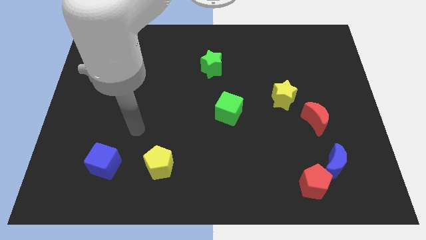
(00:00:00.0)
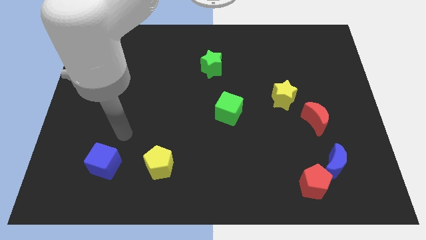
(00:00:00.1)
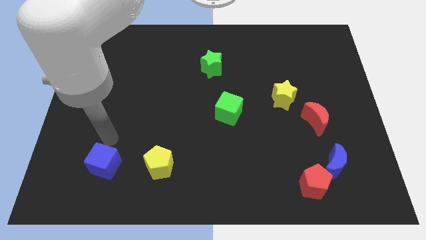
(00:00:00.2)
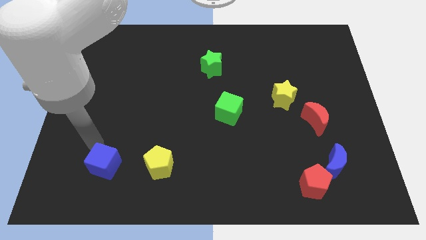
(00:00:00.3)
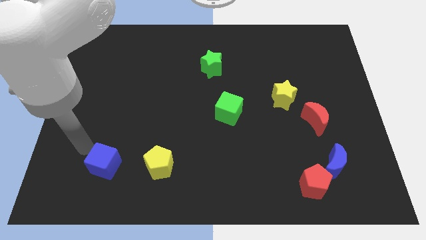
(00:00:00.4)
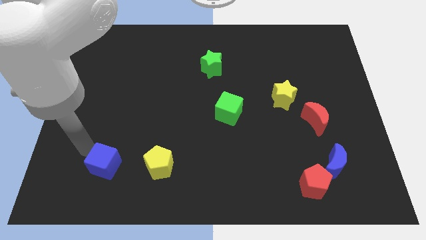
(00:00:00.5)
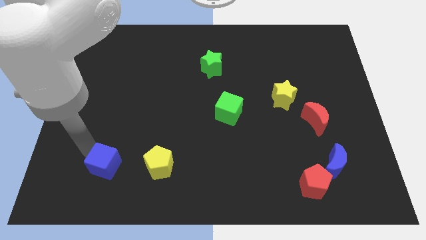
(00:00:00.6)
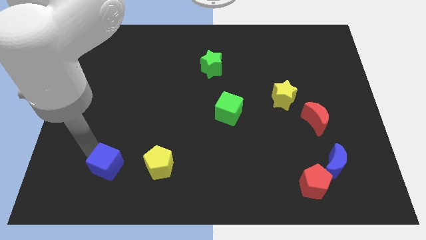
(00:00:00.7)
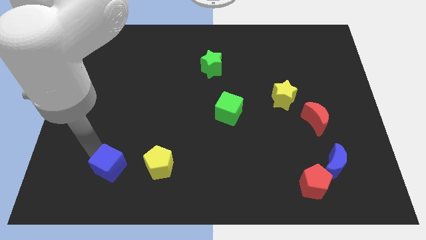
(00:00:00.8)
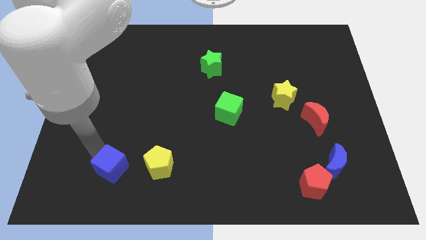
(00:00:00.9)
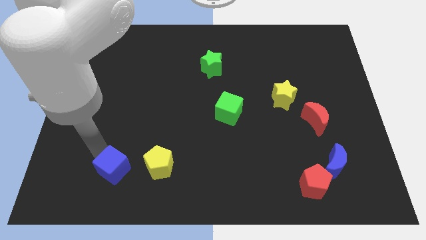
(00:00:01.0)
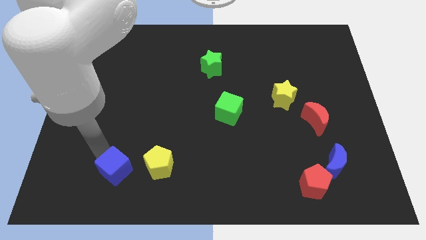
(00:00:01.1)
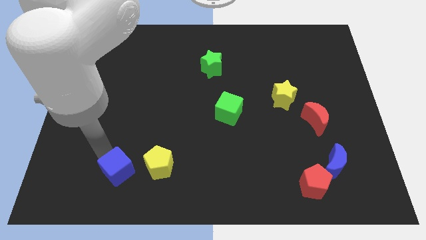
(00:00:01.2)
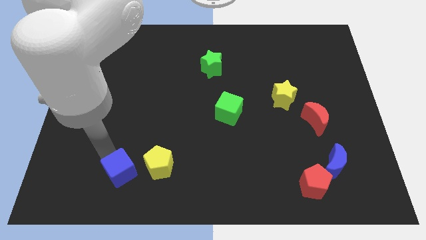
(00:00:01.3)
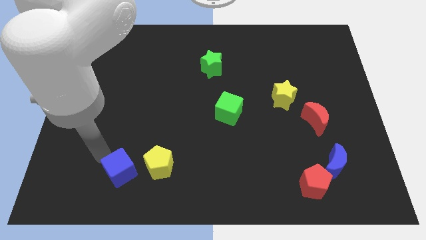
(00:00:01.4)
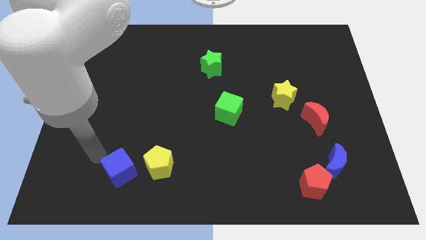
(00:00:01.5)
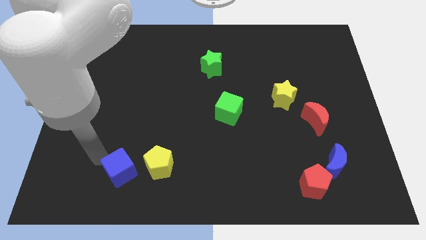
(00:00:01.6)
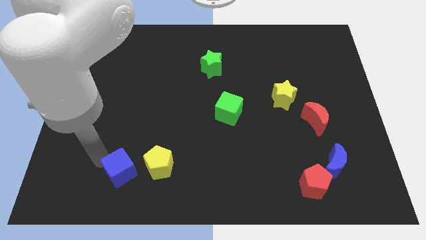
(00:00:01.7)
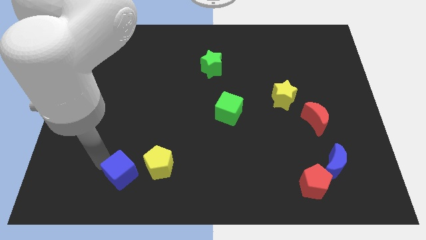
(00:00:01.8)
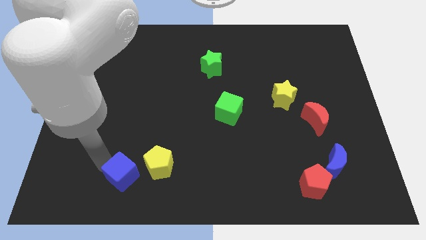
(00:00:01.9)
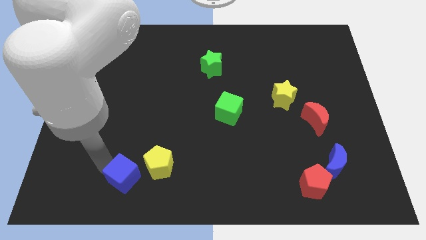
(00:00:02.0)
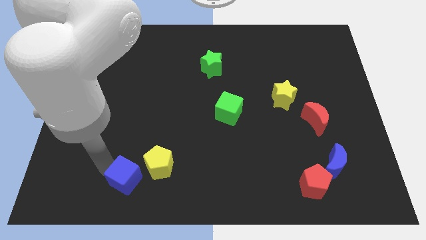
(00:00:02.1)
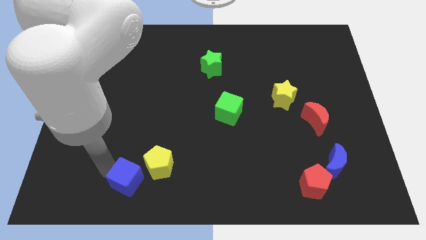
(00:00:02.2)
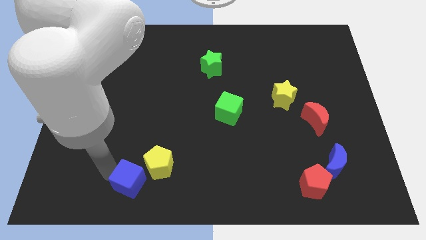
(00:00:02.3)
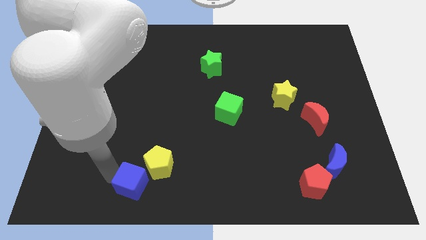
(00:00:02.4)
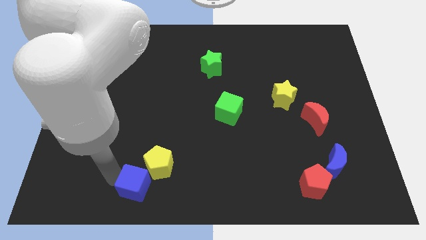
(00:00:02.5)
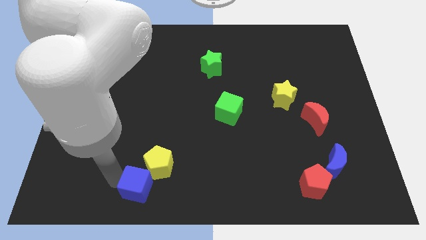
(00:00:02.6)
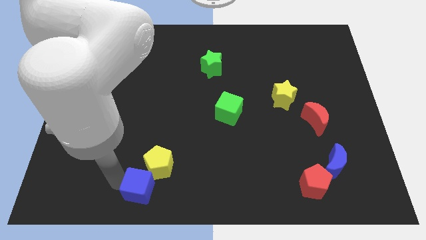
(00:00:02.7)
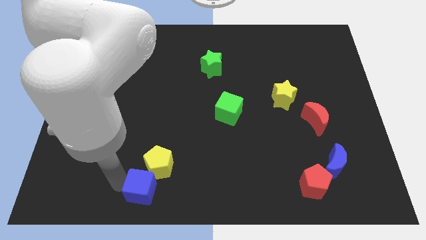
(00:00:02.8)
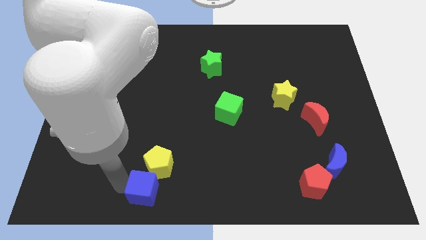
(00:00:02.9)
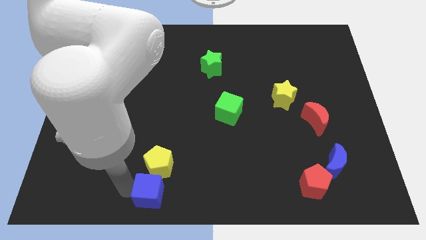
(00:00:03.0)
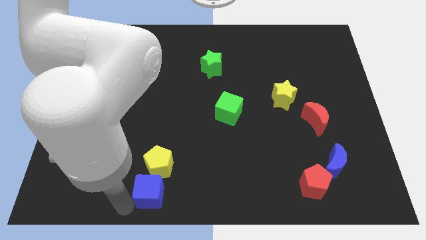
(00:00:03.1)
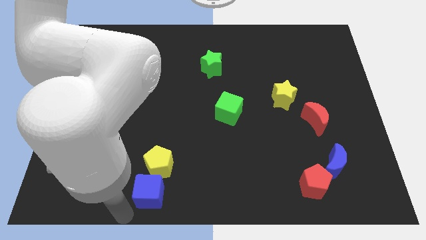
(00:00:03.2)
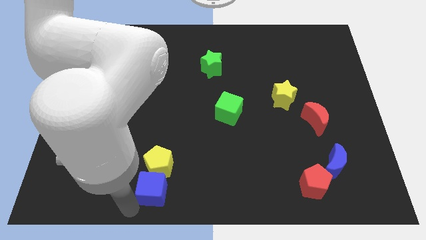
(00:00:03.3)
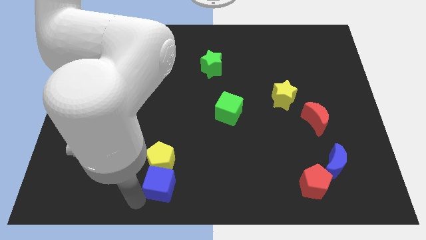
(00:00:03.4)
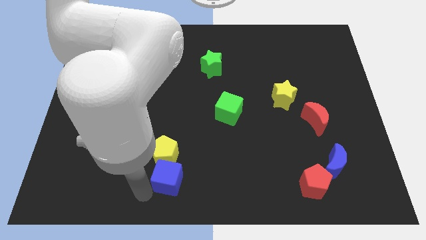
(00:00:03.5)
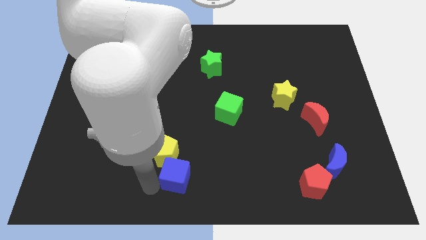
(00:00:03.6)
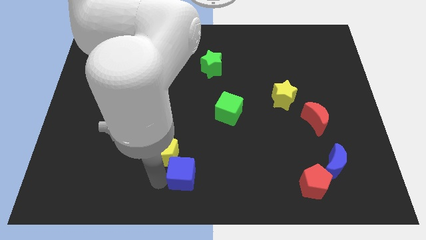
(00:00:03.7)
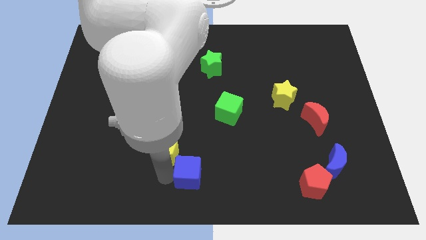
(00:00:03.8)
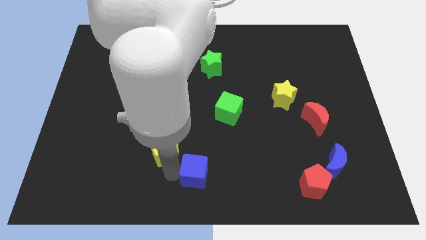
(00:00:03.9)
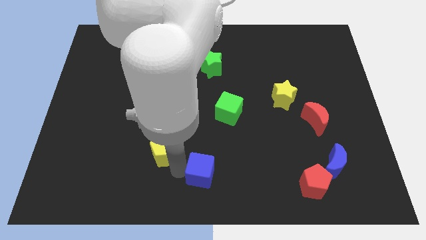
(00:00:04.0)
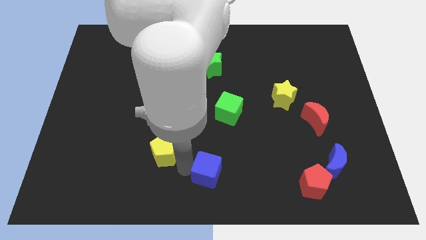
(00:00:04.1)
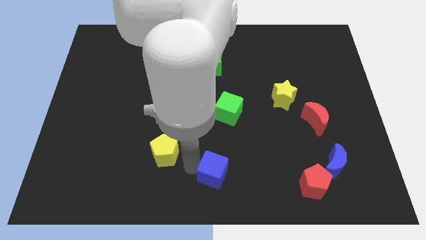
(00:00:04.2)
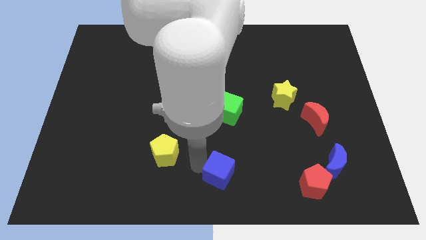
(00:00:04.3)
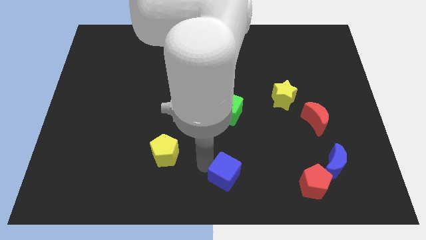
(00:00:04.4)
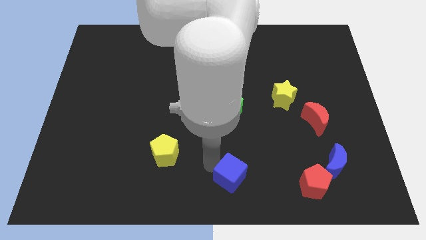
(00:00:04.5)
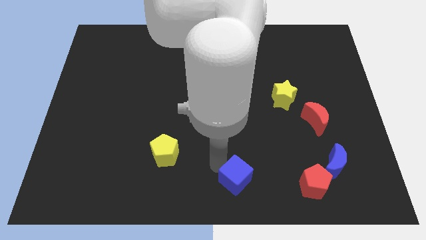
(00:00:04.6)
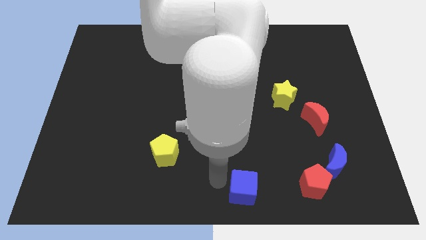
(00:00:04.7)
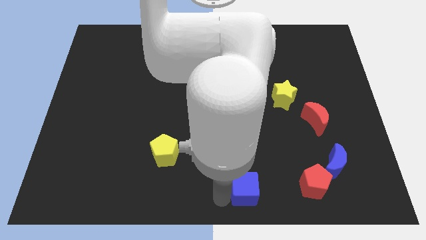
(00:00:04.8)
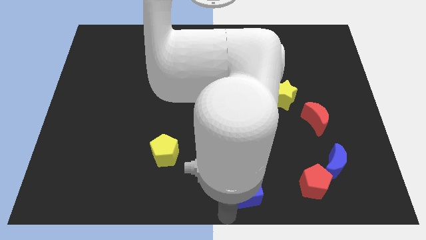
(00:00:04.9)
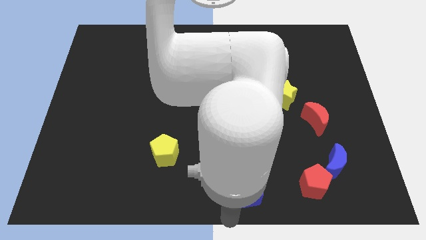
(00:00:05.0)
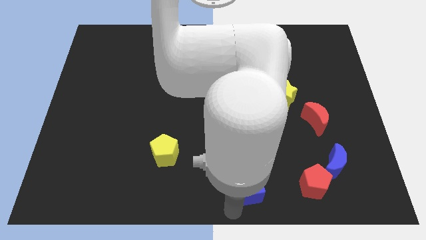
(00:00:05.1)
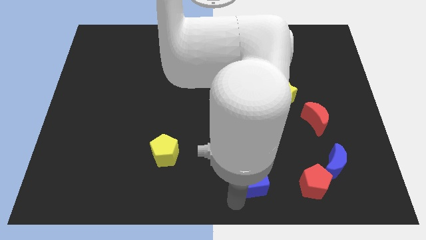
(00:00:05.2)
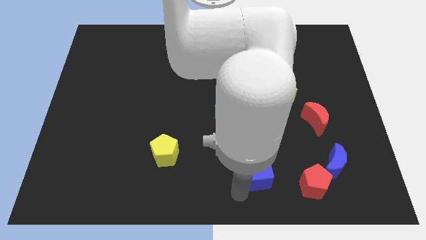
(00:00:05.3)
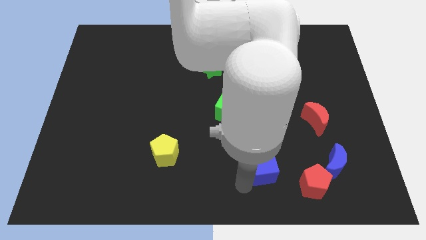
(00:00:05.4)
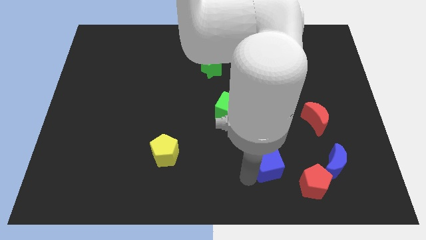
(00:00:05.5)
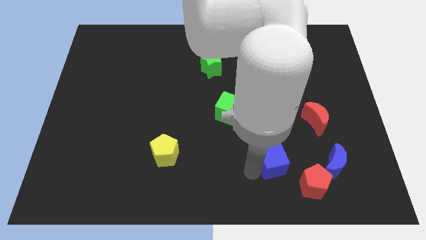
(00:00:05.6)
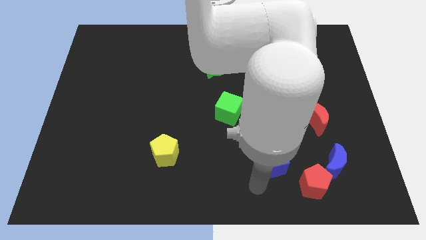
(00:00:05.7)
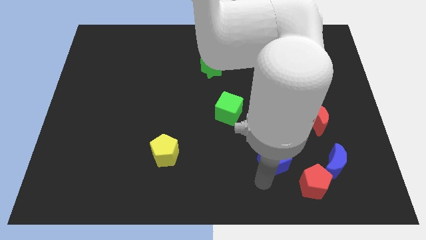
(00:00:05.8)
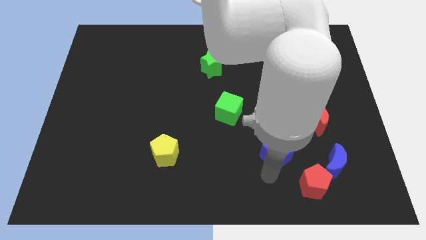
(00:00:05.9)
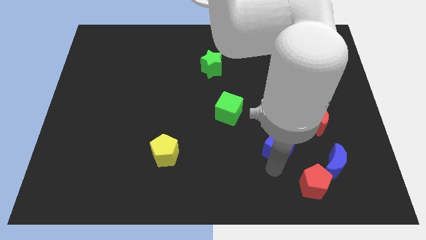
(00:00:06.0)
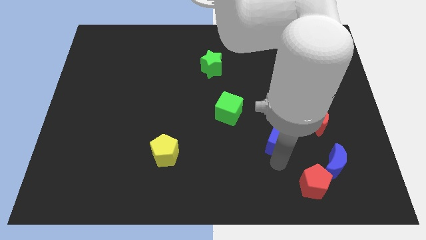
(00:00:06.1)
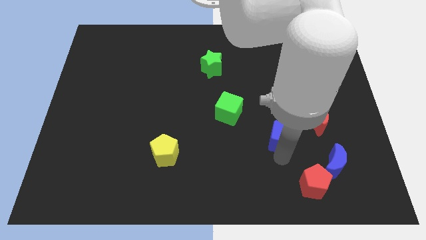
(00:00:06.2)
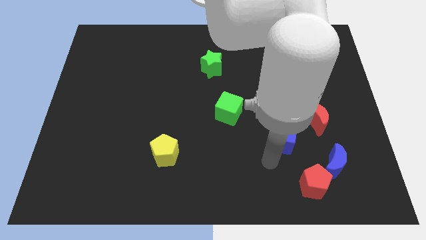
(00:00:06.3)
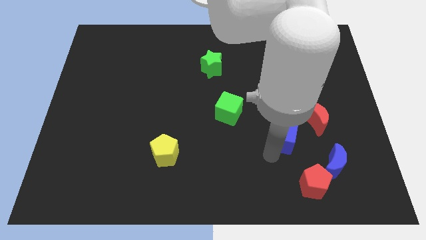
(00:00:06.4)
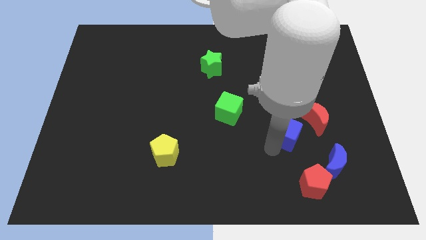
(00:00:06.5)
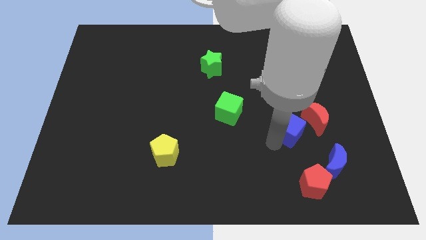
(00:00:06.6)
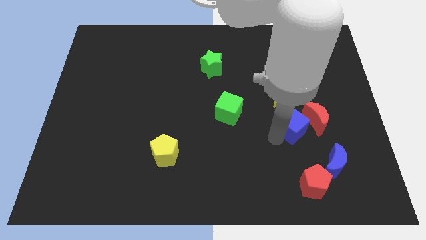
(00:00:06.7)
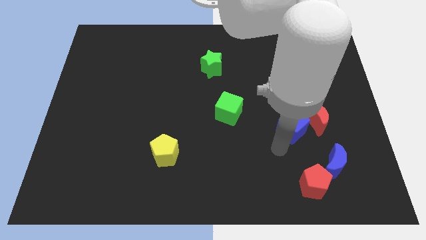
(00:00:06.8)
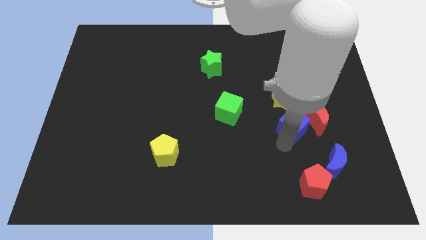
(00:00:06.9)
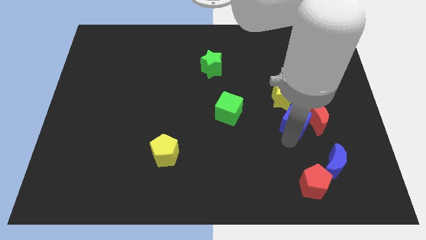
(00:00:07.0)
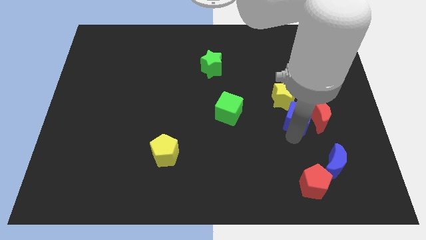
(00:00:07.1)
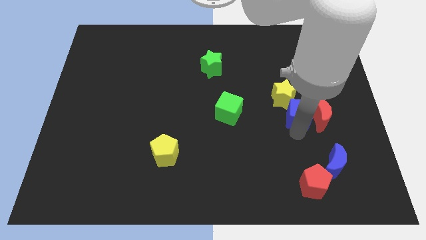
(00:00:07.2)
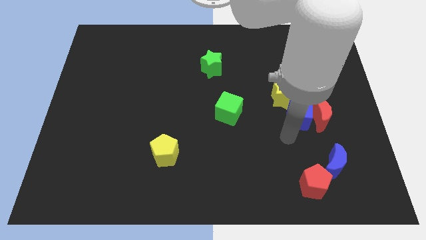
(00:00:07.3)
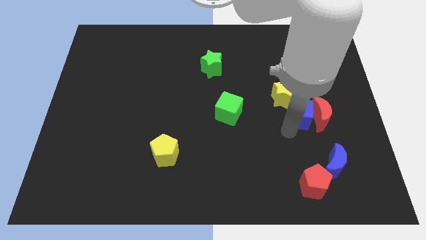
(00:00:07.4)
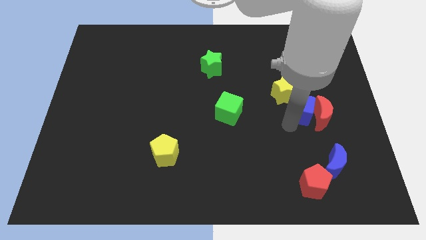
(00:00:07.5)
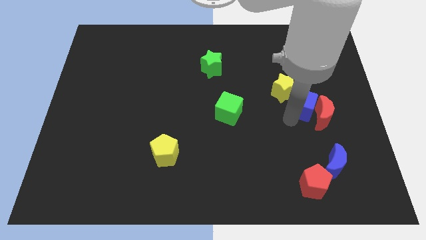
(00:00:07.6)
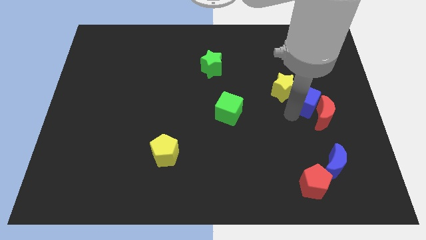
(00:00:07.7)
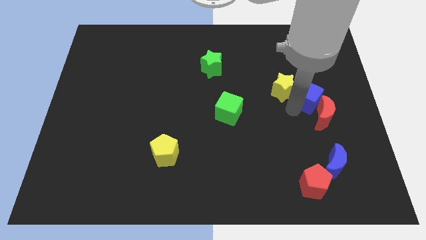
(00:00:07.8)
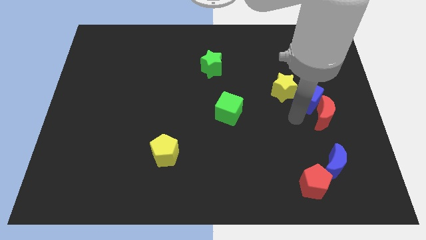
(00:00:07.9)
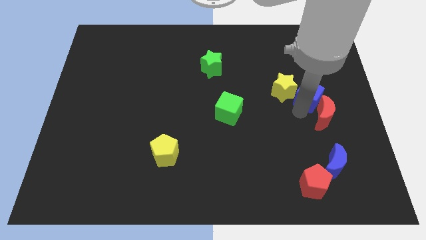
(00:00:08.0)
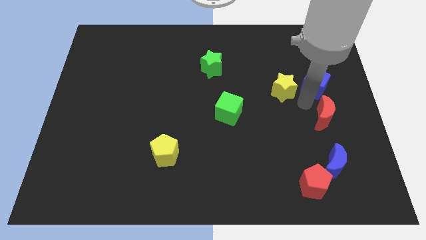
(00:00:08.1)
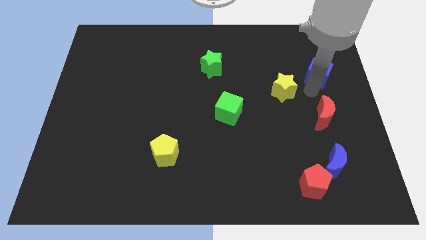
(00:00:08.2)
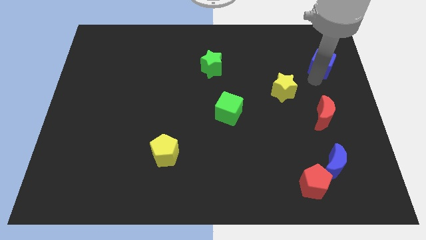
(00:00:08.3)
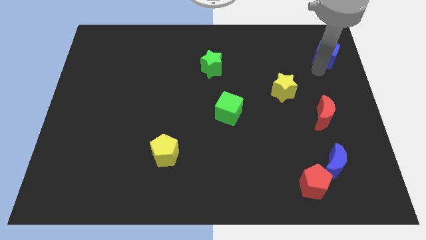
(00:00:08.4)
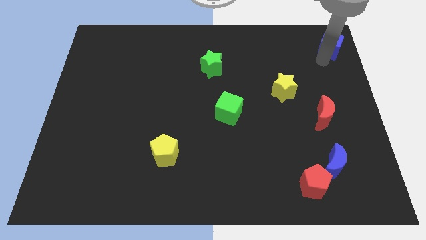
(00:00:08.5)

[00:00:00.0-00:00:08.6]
slide the blue cube to the upper right corner
